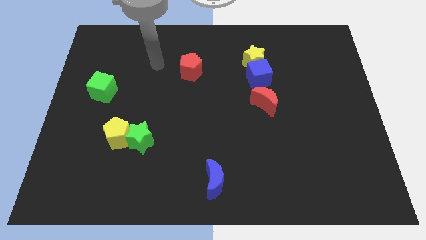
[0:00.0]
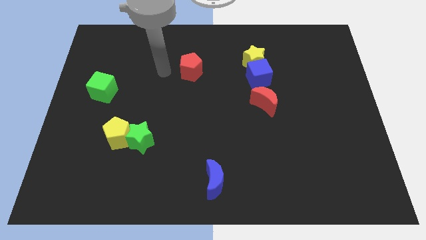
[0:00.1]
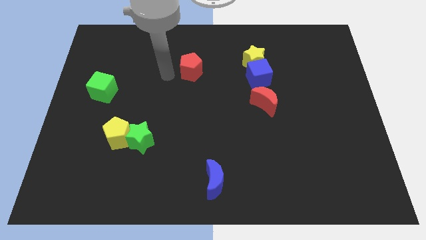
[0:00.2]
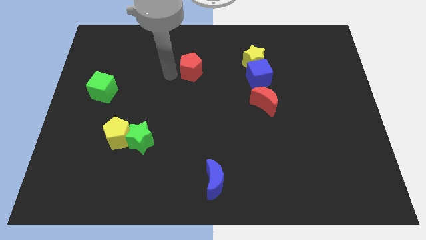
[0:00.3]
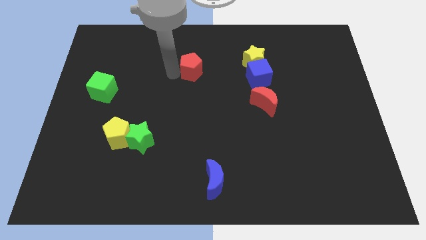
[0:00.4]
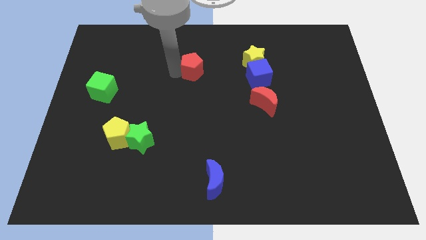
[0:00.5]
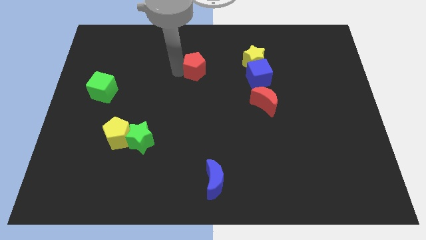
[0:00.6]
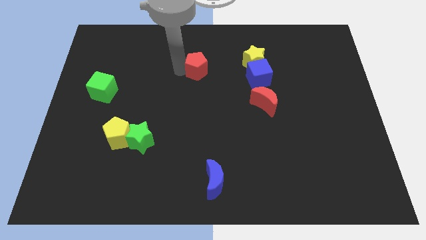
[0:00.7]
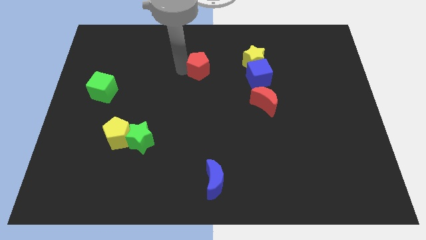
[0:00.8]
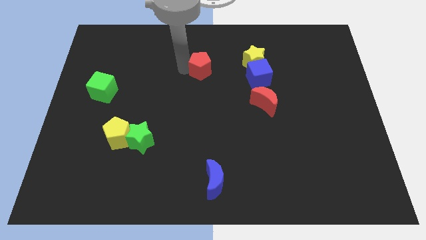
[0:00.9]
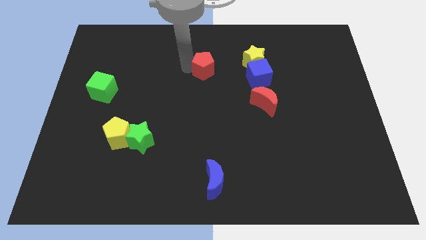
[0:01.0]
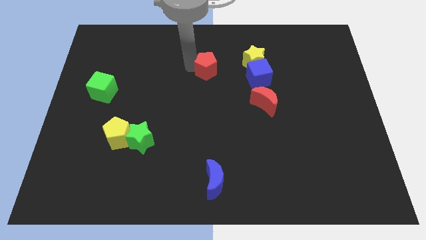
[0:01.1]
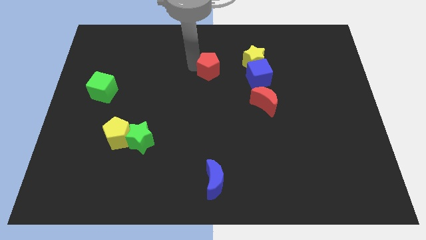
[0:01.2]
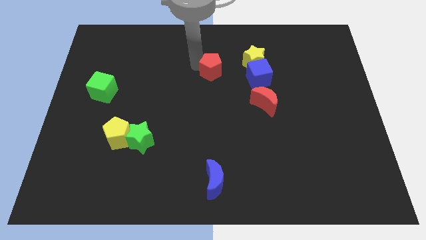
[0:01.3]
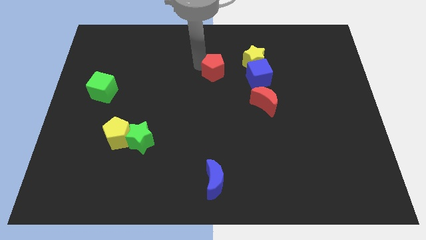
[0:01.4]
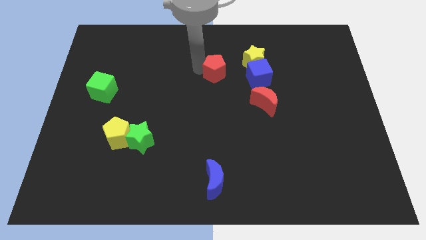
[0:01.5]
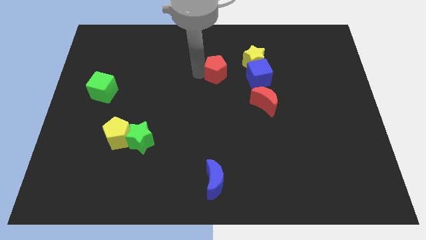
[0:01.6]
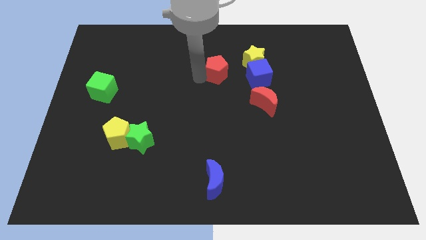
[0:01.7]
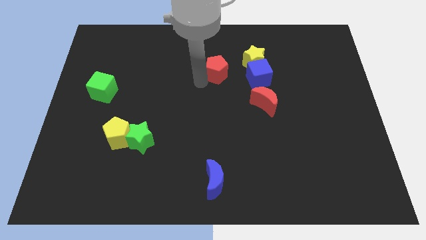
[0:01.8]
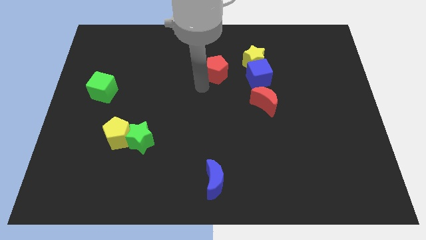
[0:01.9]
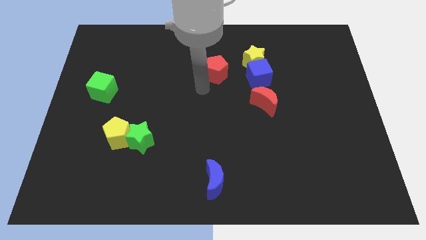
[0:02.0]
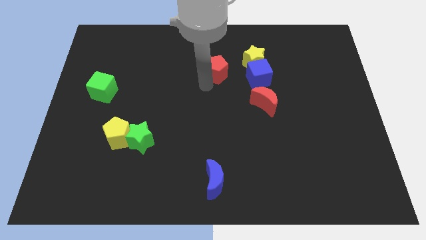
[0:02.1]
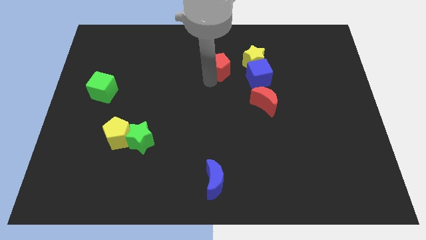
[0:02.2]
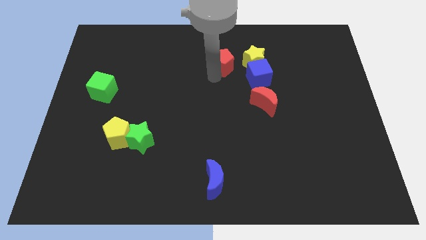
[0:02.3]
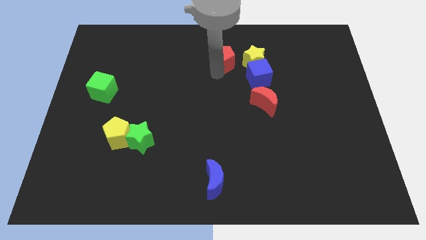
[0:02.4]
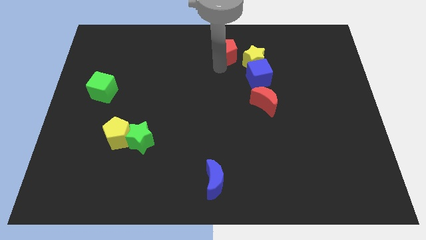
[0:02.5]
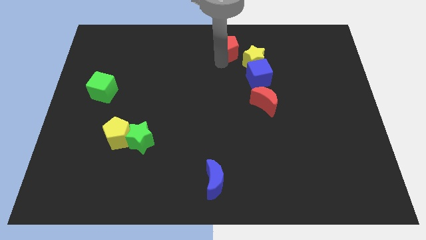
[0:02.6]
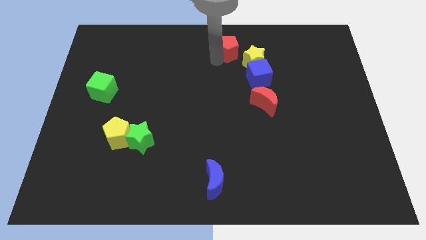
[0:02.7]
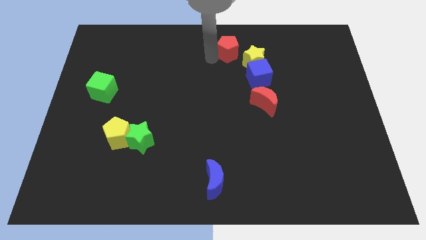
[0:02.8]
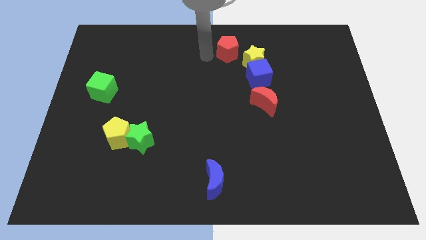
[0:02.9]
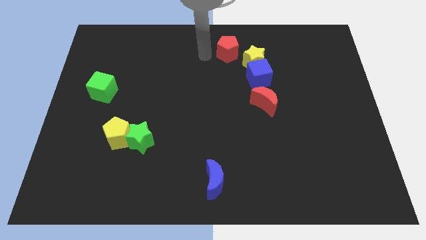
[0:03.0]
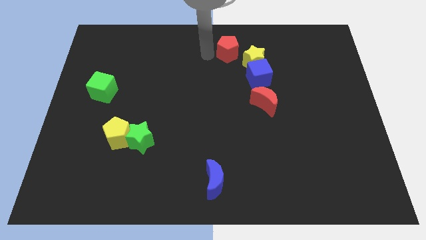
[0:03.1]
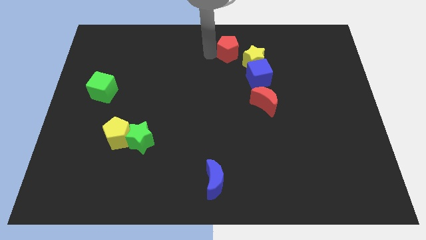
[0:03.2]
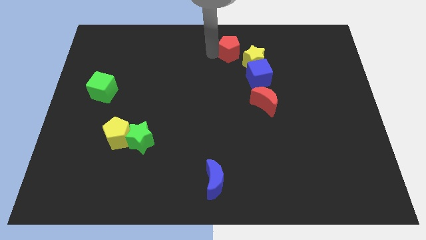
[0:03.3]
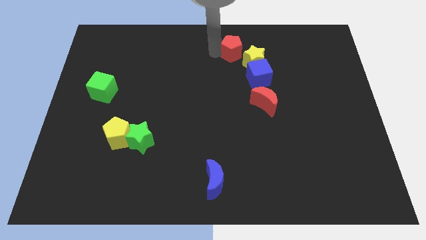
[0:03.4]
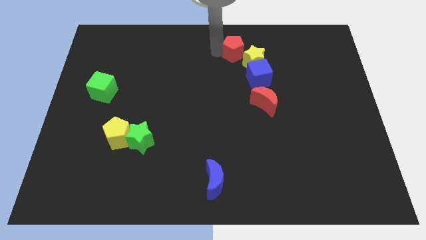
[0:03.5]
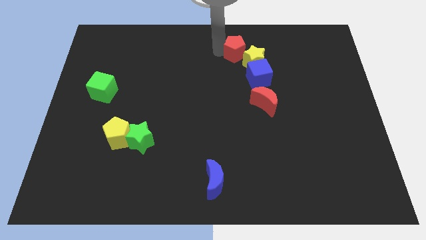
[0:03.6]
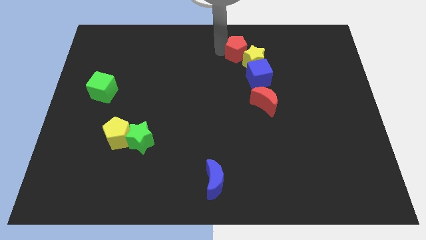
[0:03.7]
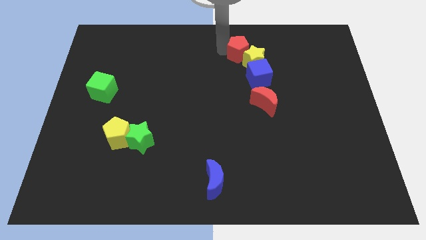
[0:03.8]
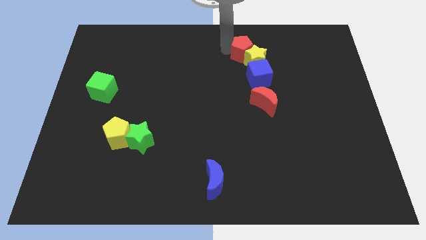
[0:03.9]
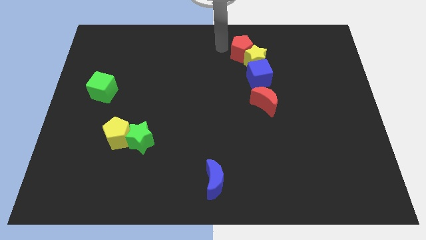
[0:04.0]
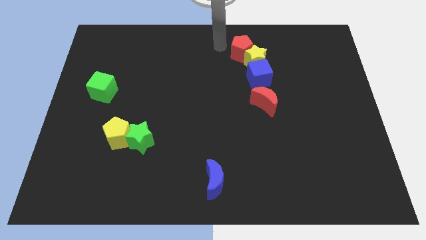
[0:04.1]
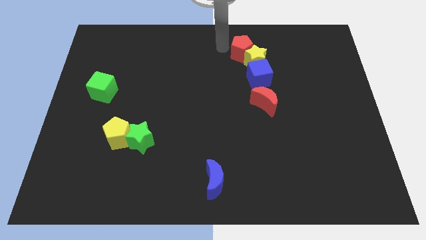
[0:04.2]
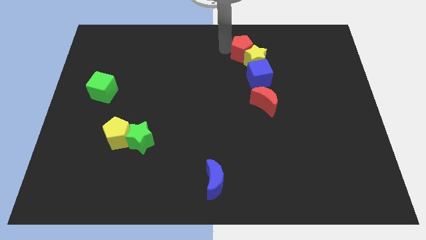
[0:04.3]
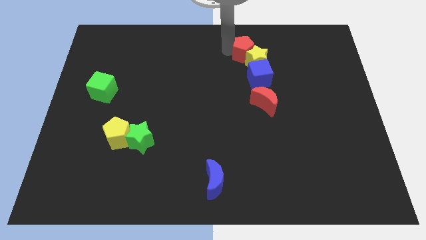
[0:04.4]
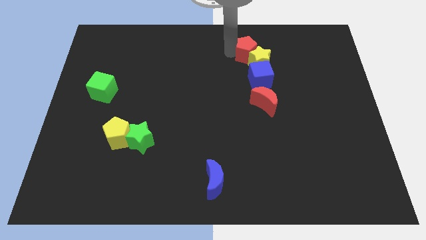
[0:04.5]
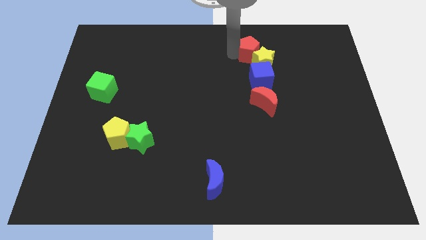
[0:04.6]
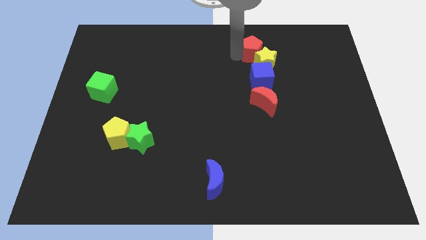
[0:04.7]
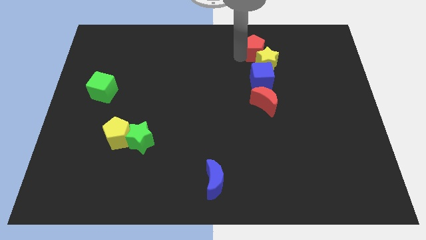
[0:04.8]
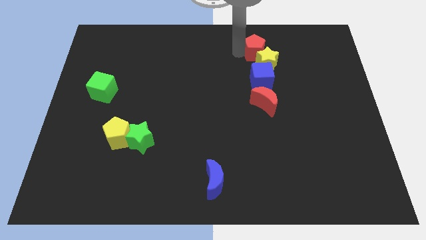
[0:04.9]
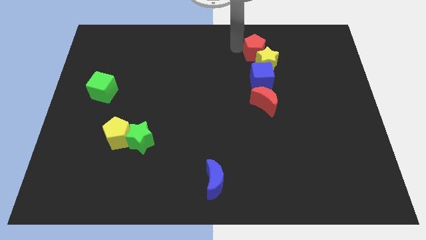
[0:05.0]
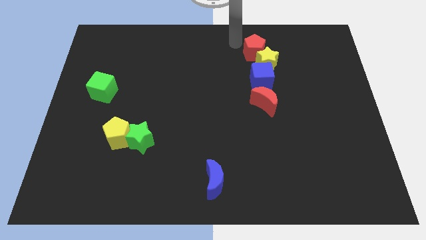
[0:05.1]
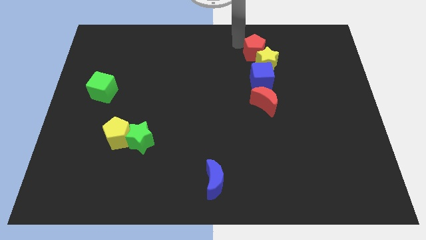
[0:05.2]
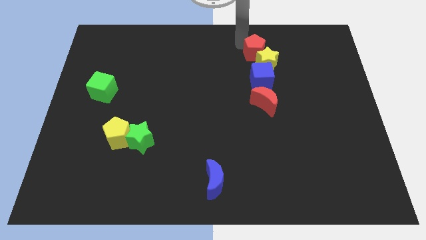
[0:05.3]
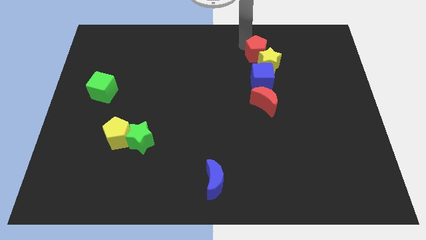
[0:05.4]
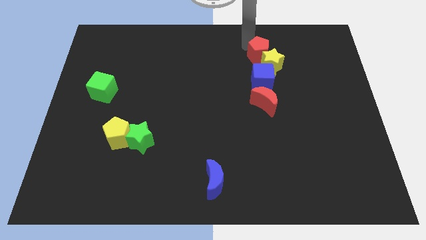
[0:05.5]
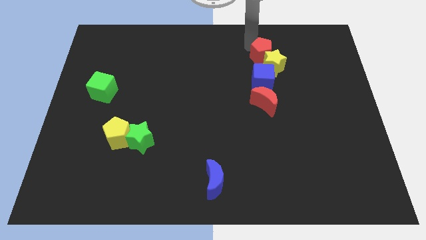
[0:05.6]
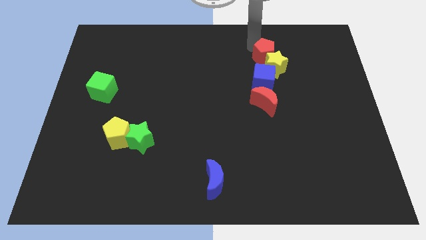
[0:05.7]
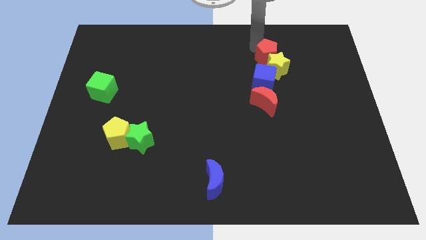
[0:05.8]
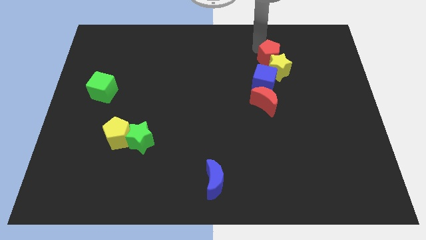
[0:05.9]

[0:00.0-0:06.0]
slide the red pentagon to the top right side of the blue cube

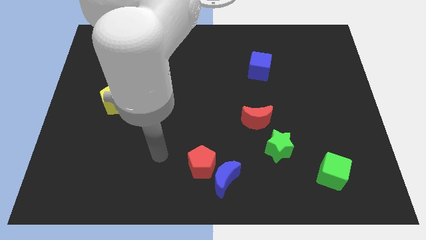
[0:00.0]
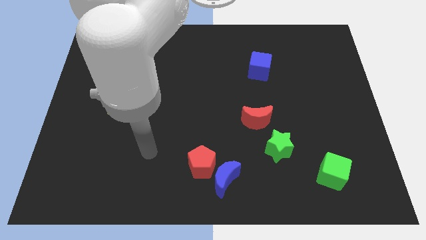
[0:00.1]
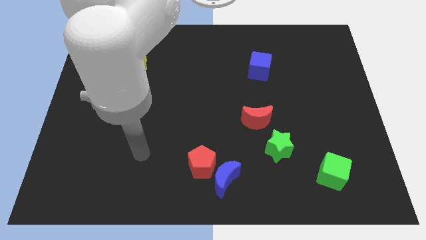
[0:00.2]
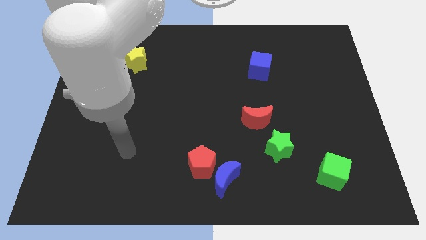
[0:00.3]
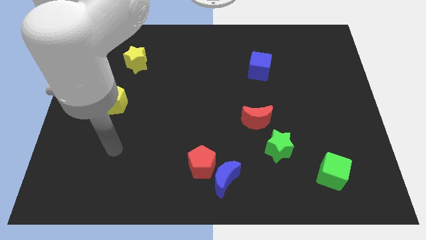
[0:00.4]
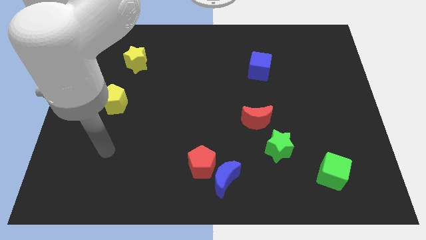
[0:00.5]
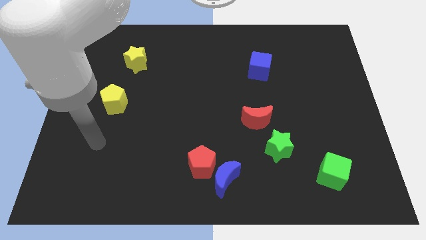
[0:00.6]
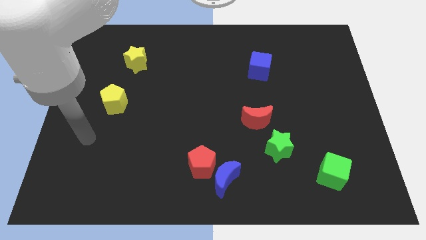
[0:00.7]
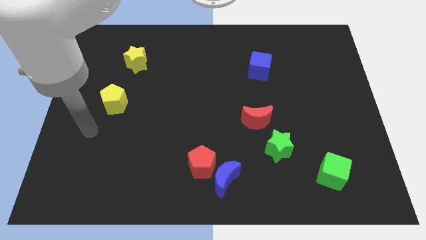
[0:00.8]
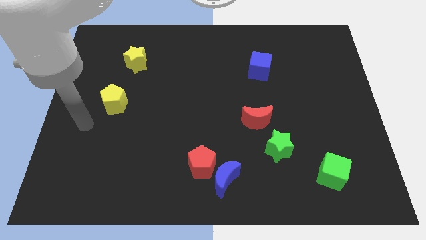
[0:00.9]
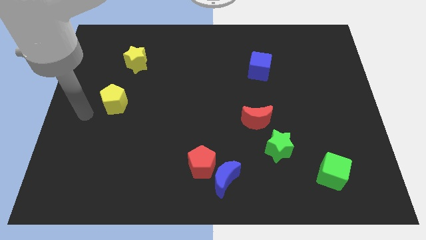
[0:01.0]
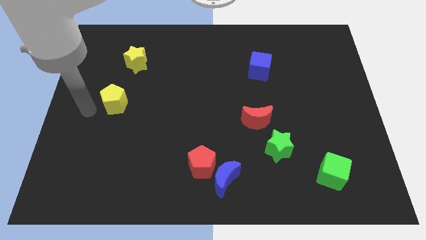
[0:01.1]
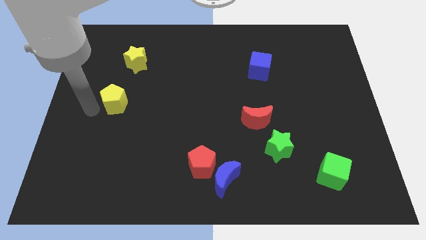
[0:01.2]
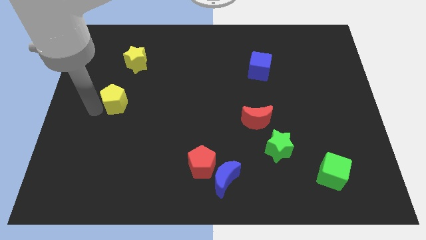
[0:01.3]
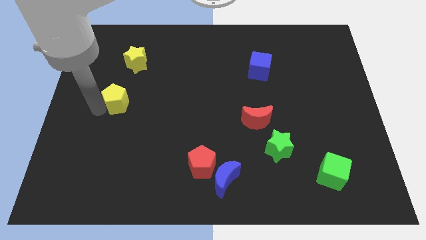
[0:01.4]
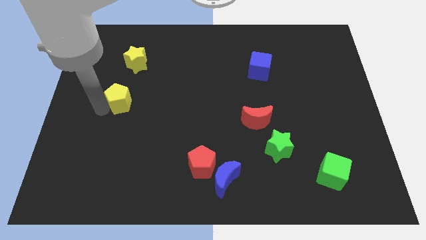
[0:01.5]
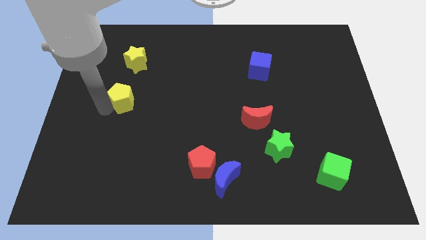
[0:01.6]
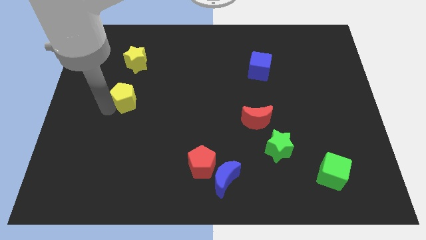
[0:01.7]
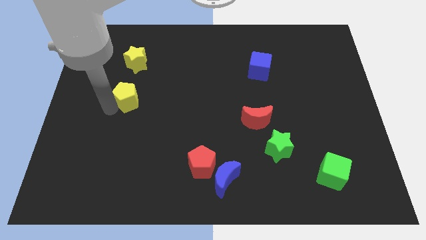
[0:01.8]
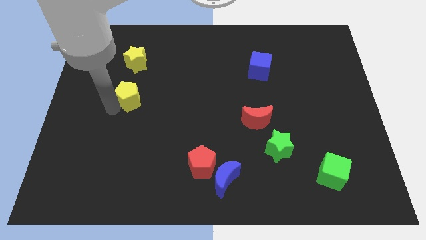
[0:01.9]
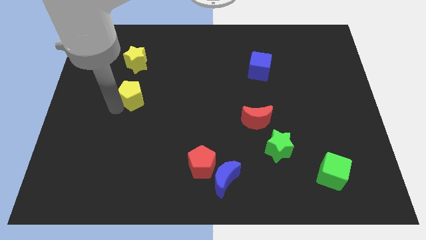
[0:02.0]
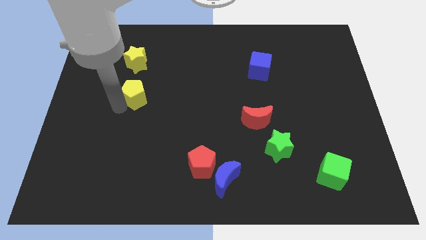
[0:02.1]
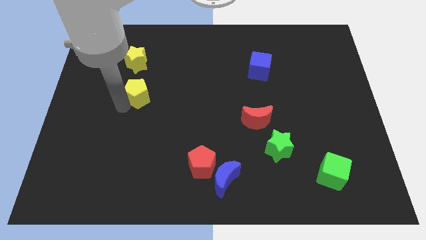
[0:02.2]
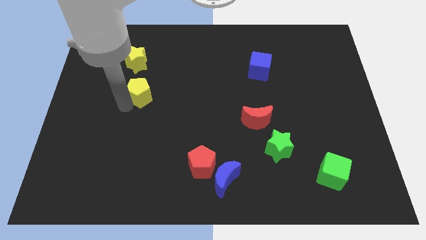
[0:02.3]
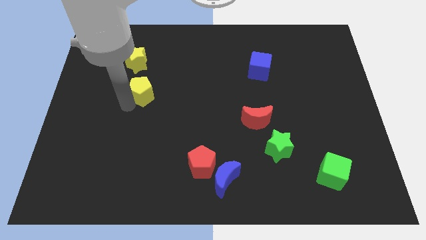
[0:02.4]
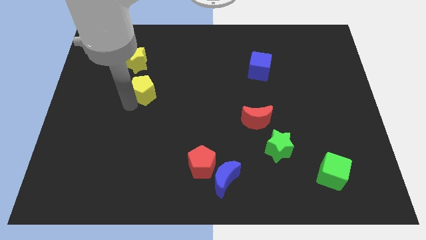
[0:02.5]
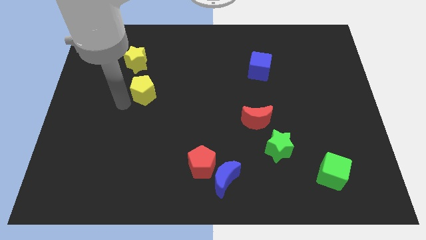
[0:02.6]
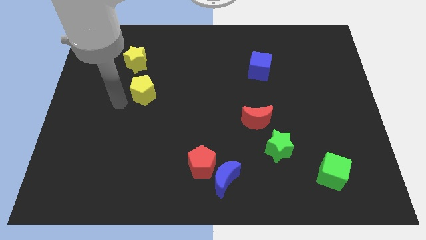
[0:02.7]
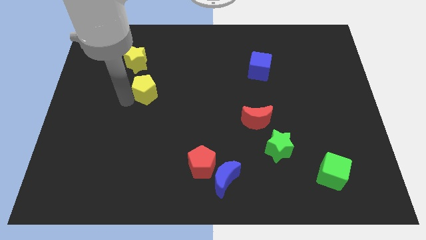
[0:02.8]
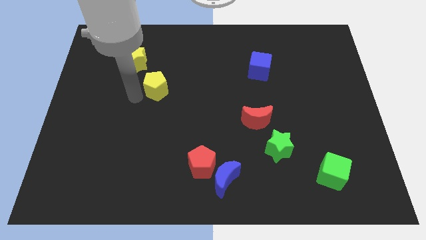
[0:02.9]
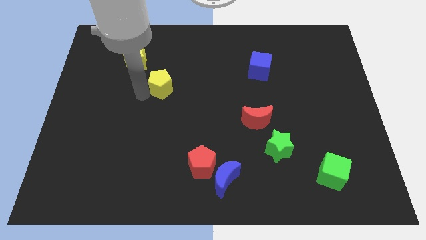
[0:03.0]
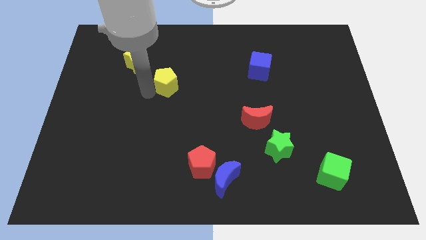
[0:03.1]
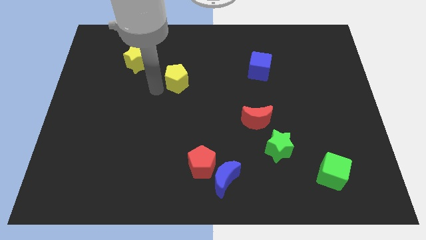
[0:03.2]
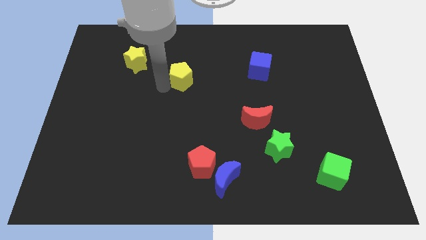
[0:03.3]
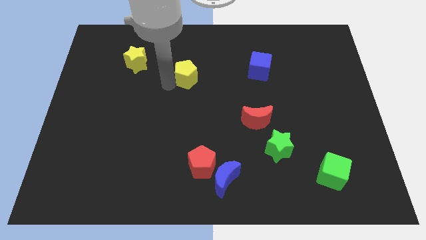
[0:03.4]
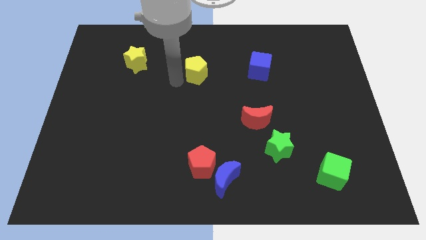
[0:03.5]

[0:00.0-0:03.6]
put the yellow pentagon to the left side of the blue cube
